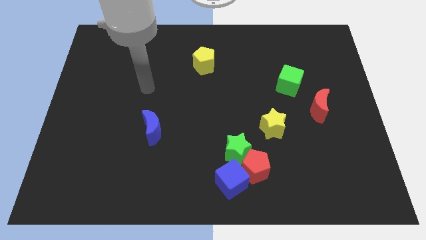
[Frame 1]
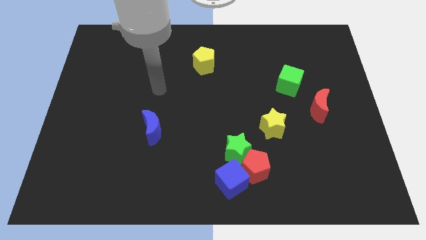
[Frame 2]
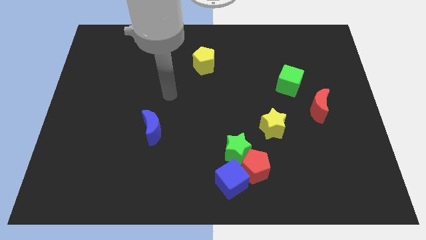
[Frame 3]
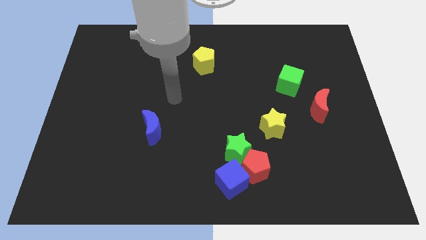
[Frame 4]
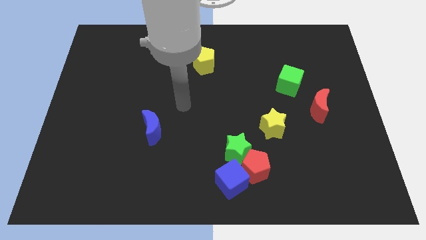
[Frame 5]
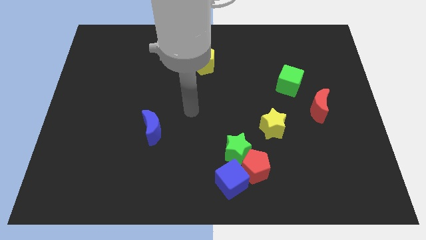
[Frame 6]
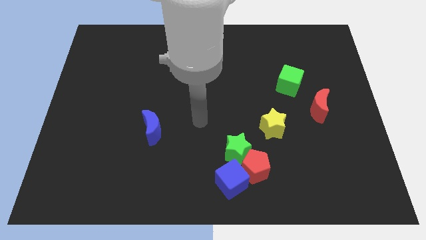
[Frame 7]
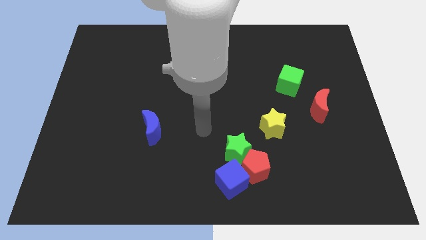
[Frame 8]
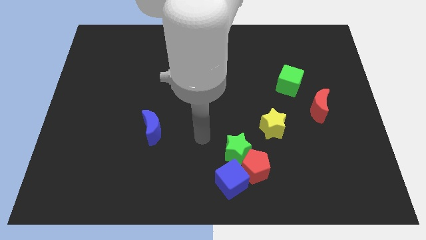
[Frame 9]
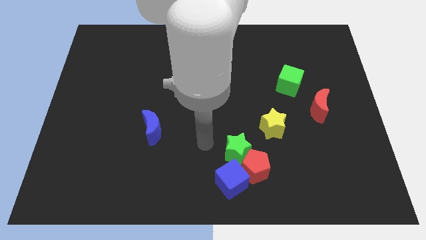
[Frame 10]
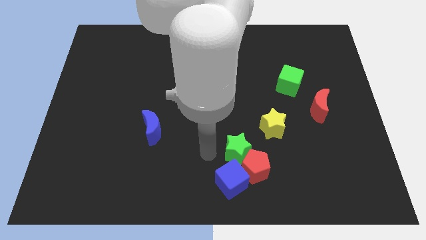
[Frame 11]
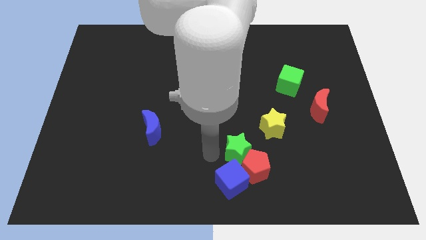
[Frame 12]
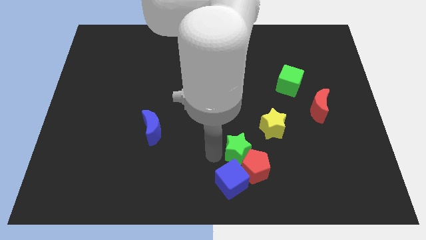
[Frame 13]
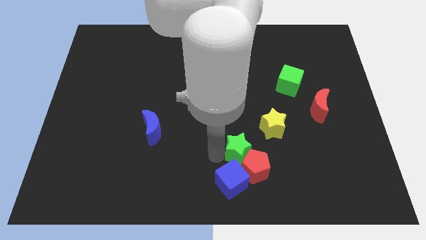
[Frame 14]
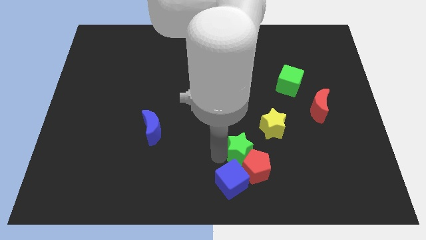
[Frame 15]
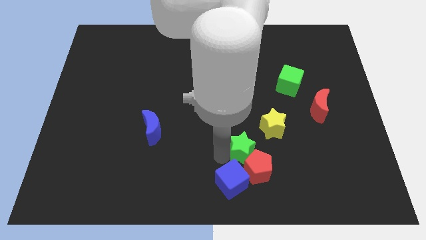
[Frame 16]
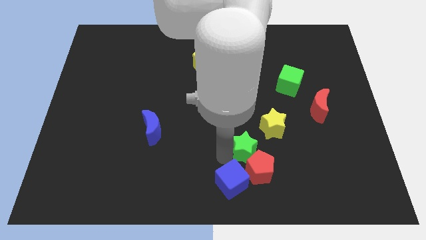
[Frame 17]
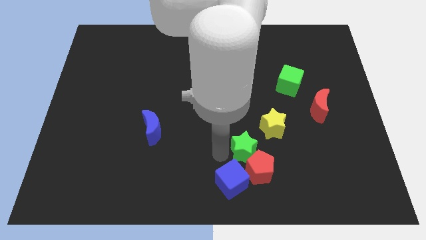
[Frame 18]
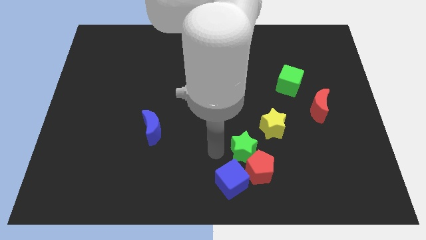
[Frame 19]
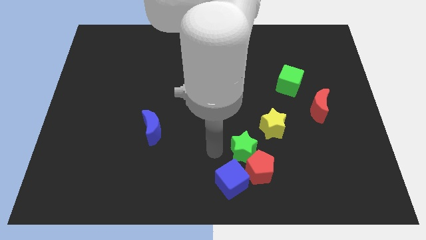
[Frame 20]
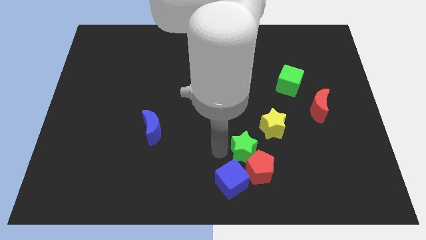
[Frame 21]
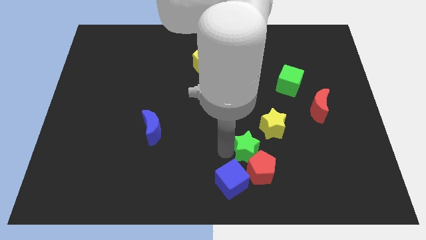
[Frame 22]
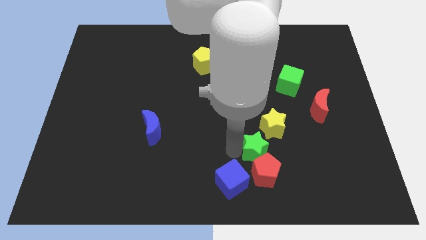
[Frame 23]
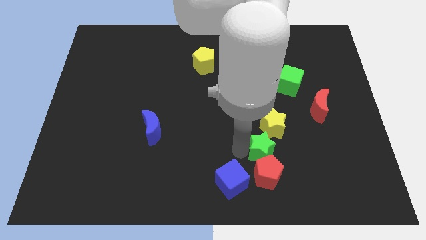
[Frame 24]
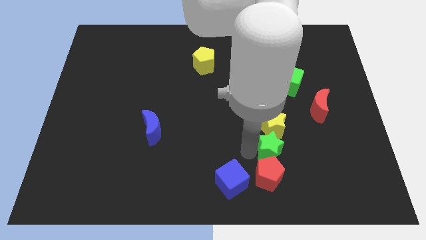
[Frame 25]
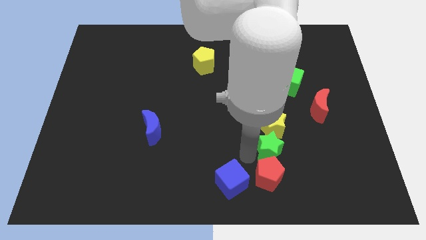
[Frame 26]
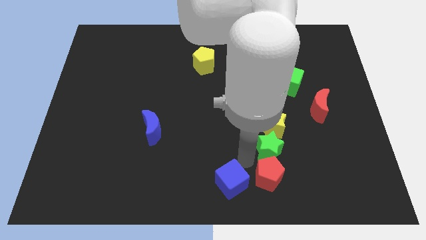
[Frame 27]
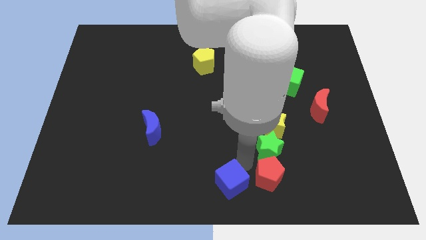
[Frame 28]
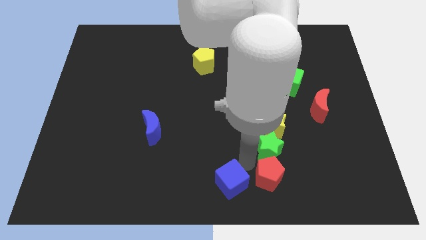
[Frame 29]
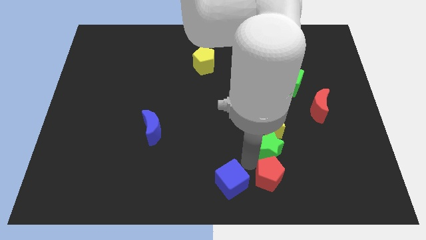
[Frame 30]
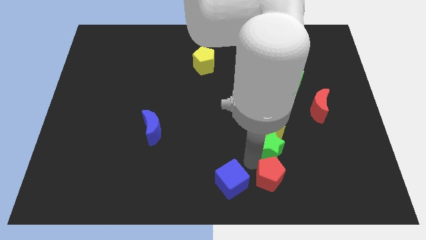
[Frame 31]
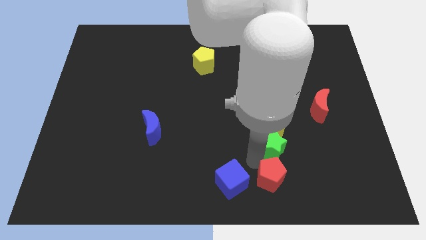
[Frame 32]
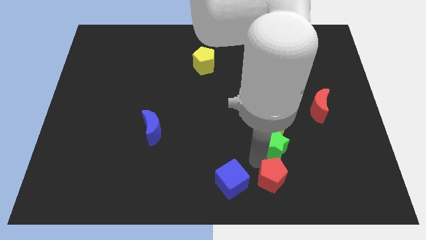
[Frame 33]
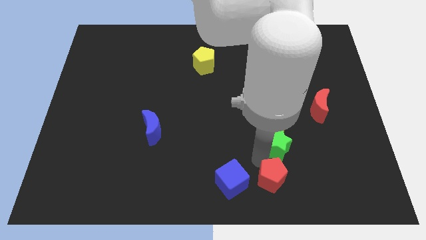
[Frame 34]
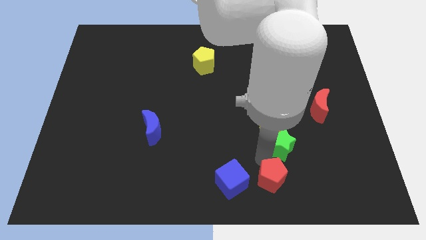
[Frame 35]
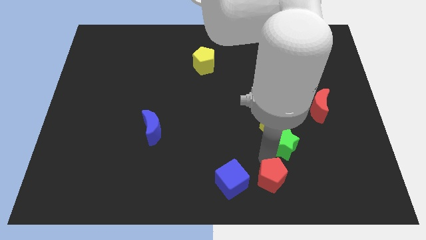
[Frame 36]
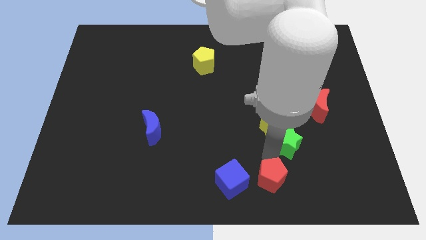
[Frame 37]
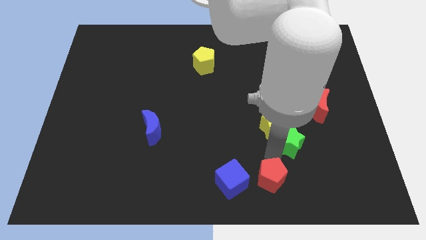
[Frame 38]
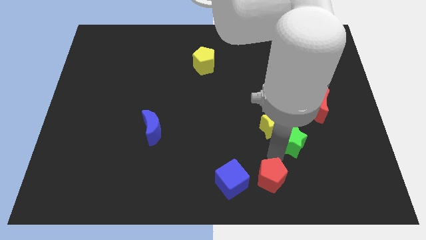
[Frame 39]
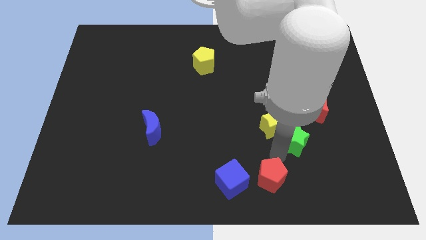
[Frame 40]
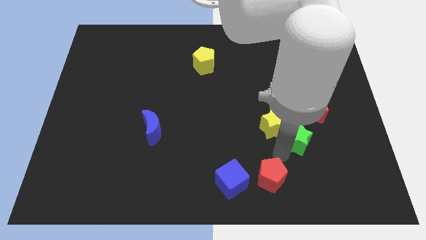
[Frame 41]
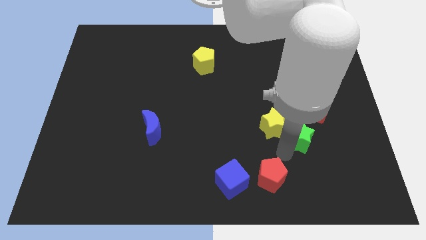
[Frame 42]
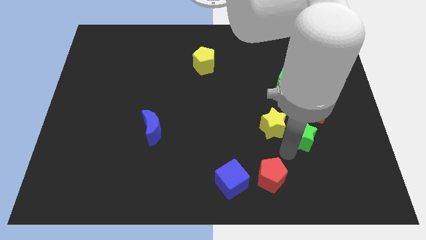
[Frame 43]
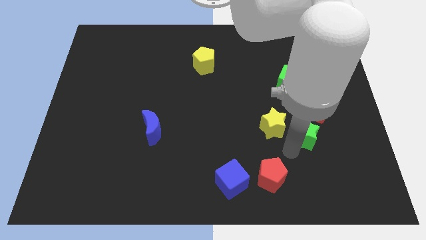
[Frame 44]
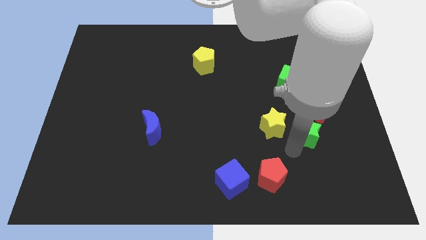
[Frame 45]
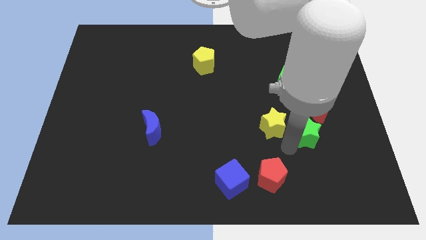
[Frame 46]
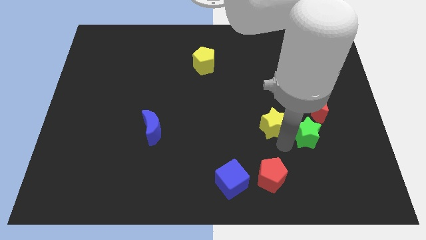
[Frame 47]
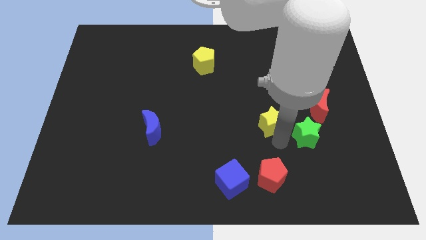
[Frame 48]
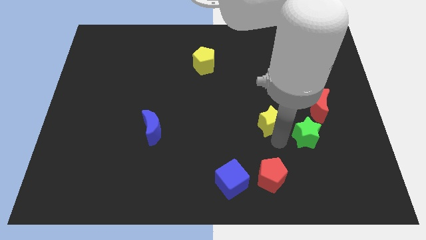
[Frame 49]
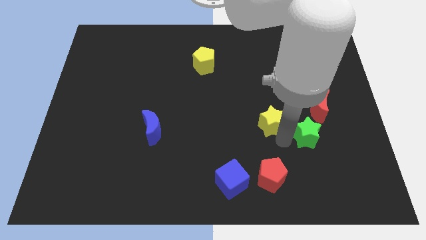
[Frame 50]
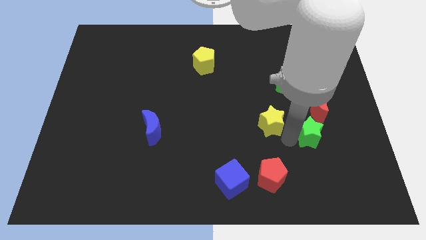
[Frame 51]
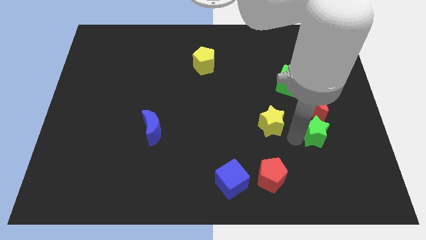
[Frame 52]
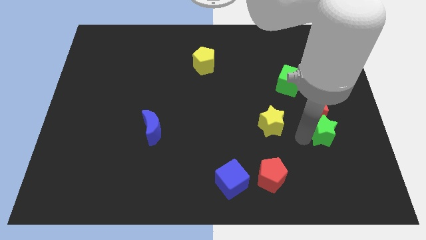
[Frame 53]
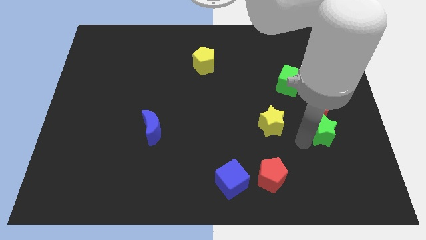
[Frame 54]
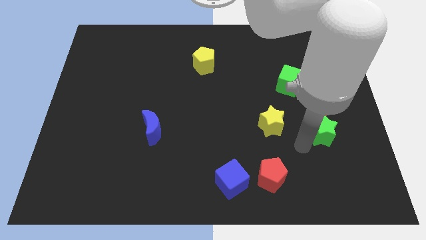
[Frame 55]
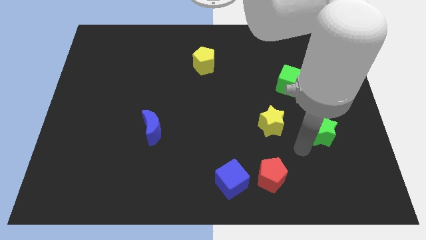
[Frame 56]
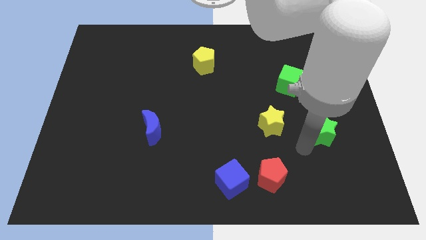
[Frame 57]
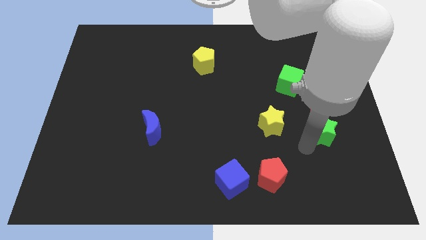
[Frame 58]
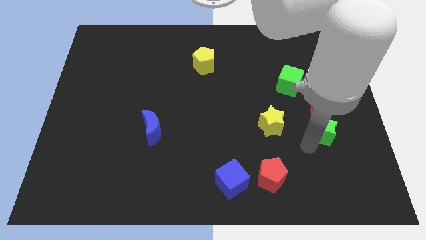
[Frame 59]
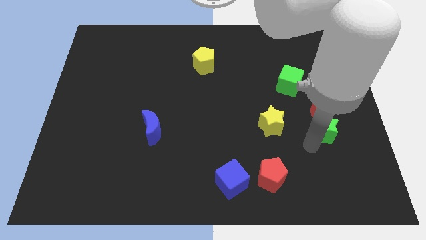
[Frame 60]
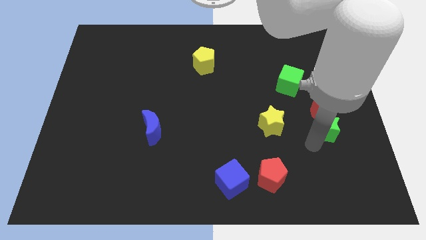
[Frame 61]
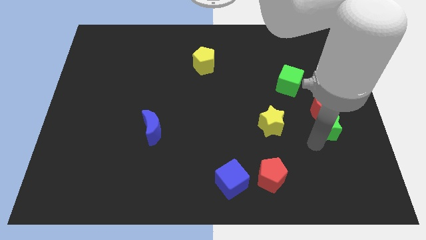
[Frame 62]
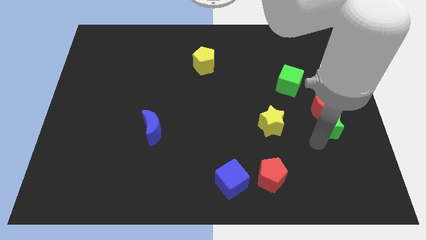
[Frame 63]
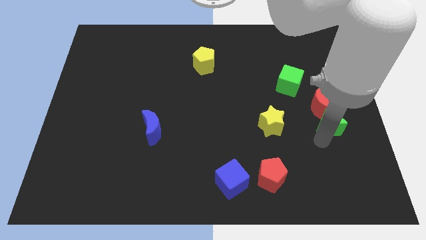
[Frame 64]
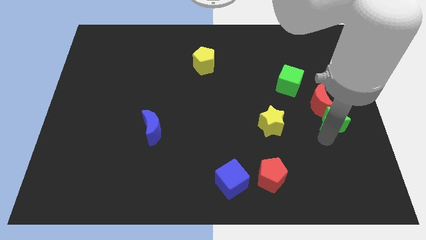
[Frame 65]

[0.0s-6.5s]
slide the green star to the right side of the board

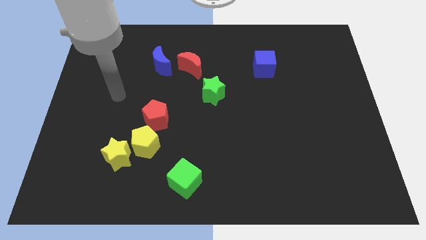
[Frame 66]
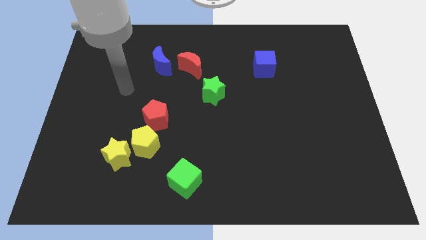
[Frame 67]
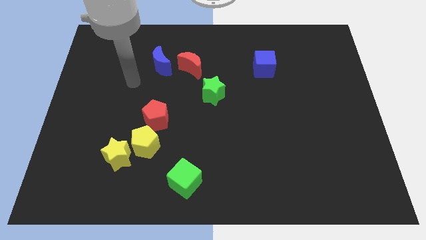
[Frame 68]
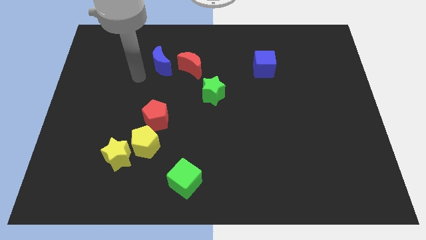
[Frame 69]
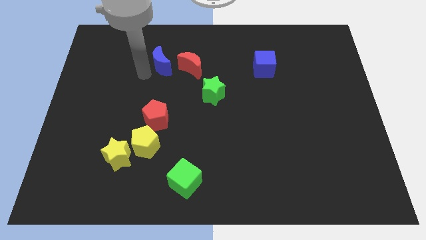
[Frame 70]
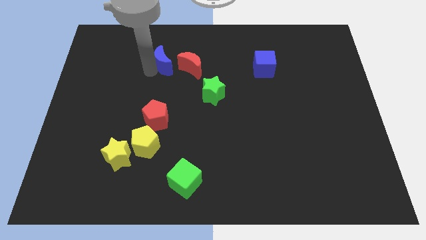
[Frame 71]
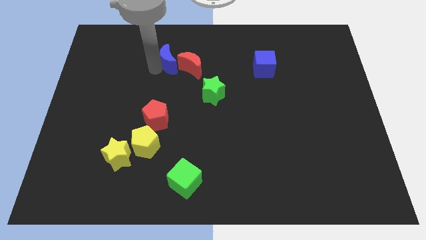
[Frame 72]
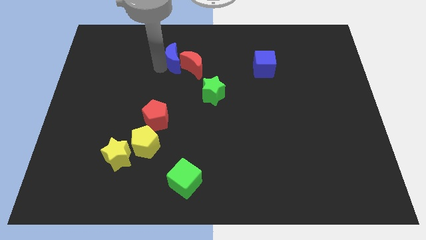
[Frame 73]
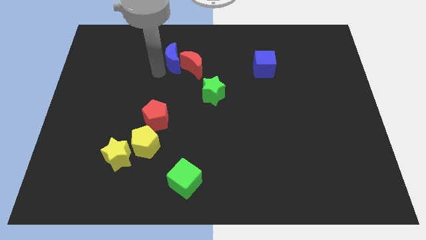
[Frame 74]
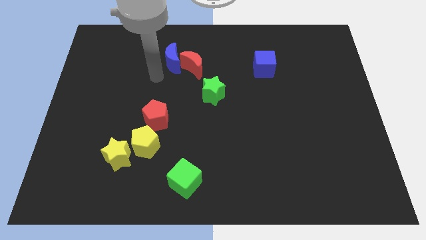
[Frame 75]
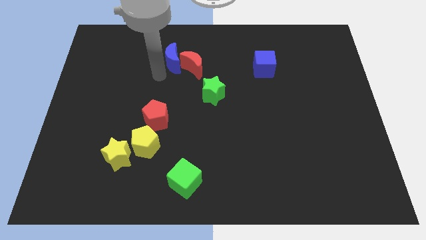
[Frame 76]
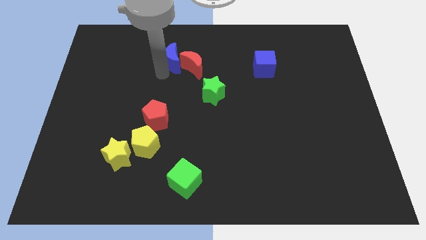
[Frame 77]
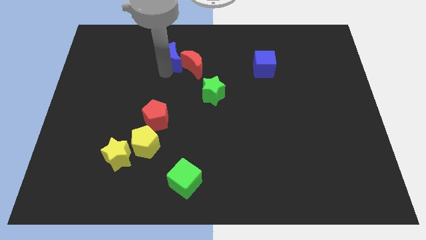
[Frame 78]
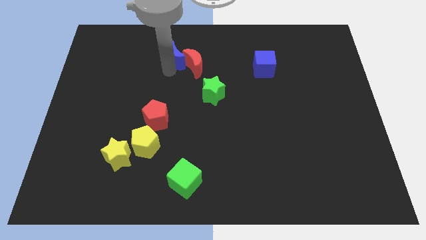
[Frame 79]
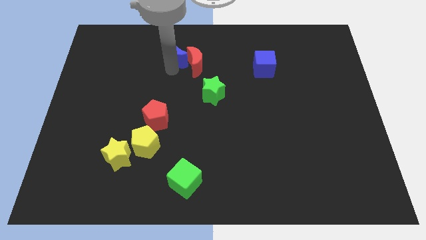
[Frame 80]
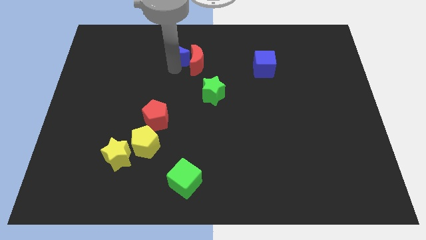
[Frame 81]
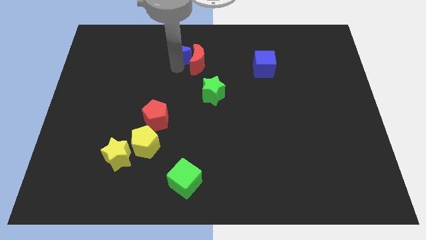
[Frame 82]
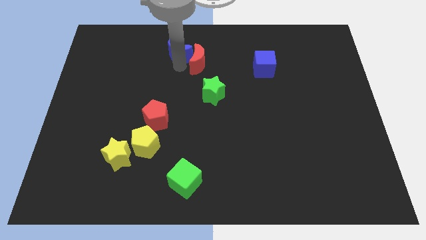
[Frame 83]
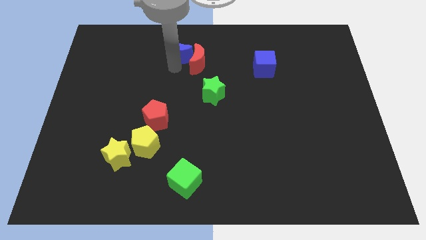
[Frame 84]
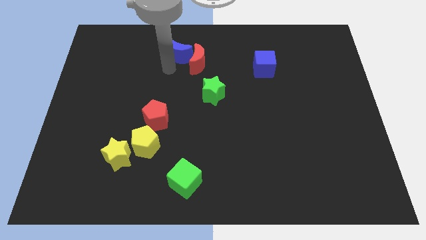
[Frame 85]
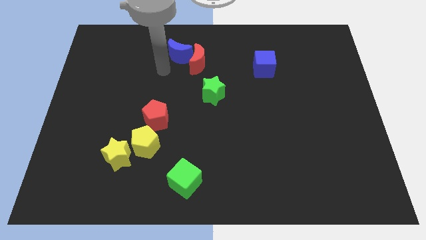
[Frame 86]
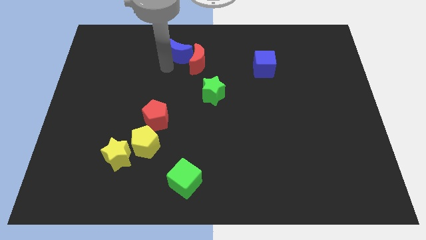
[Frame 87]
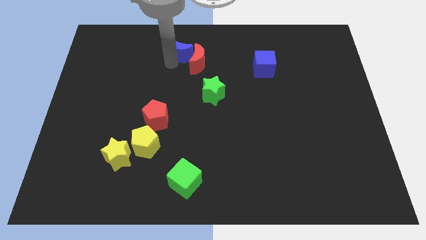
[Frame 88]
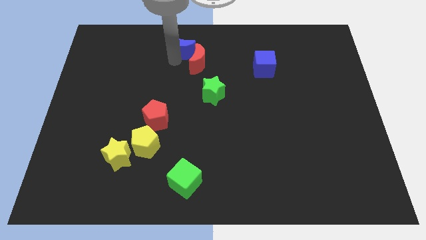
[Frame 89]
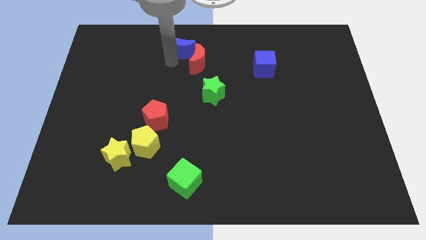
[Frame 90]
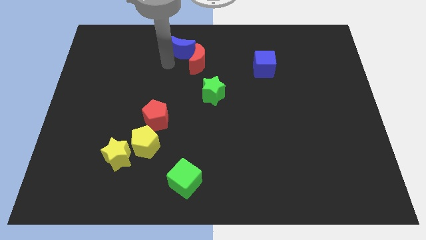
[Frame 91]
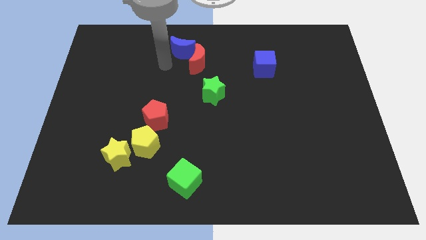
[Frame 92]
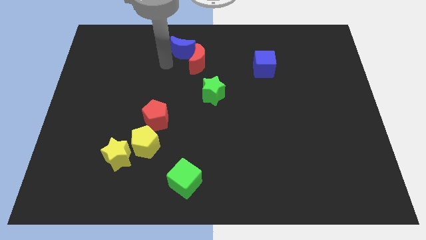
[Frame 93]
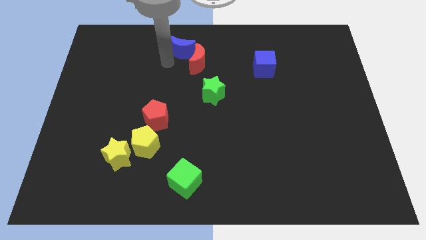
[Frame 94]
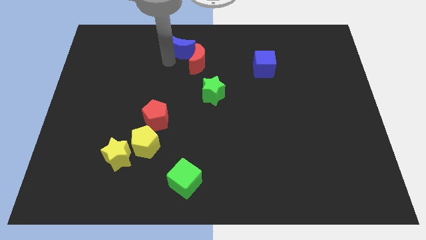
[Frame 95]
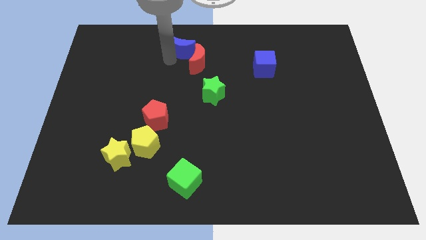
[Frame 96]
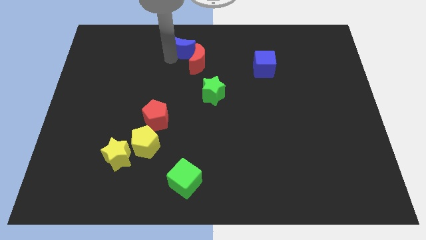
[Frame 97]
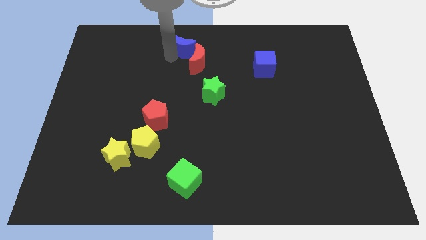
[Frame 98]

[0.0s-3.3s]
move the blue moon to the top side
